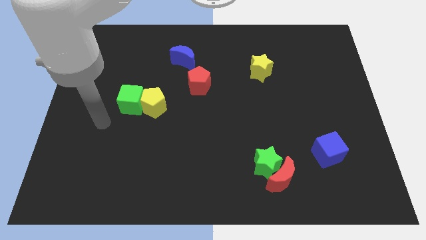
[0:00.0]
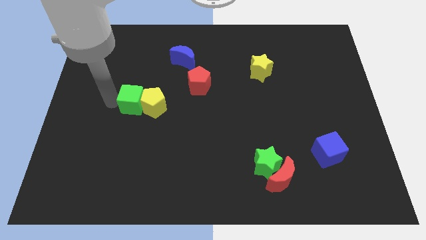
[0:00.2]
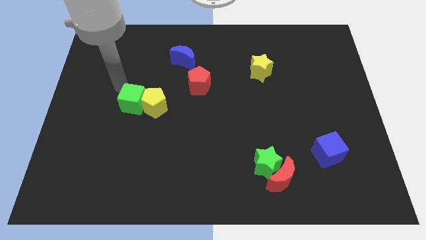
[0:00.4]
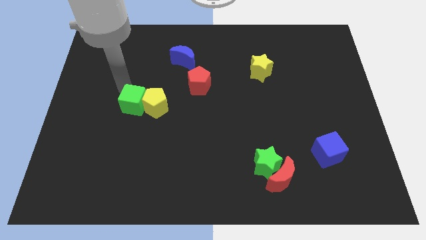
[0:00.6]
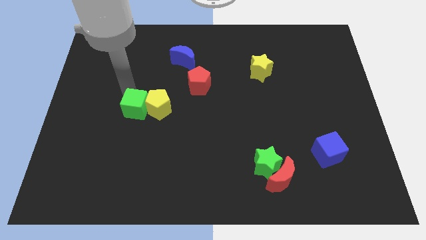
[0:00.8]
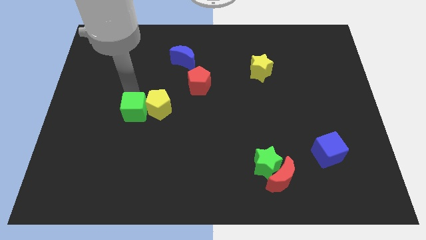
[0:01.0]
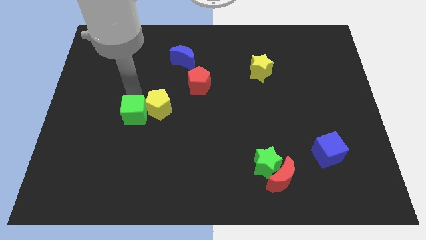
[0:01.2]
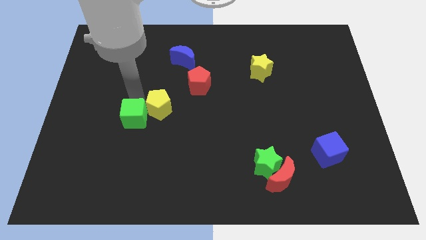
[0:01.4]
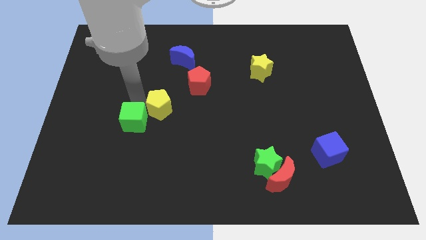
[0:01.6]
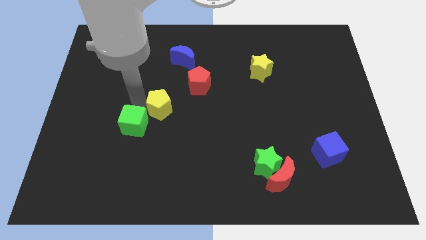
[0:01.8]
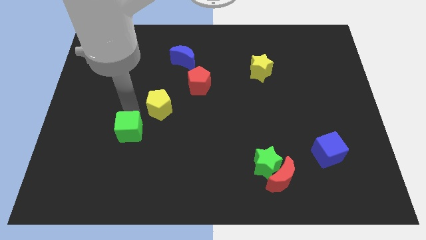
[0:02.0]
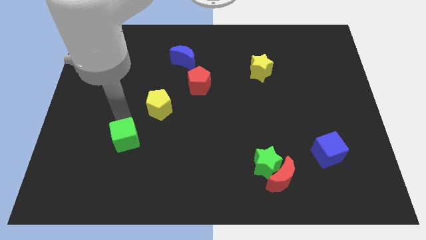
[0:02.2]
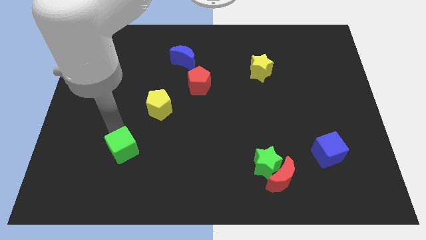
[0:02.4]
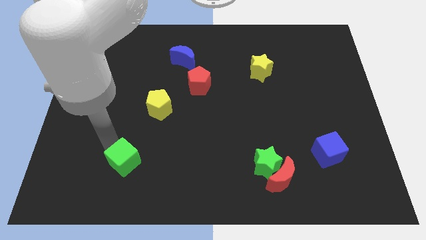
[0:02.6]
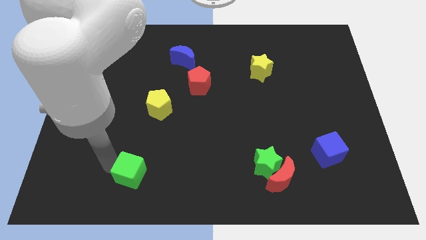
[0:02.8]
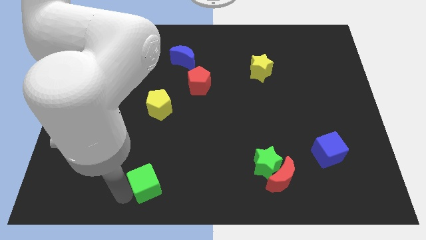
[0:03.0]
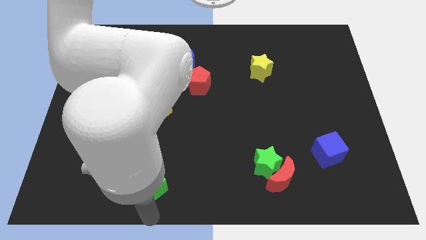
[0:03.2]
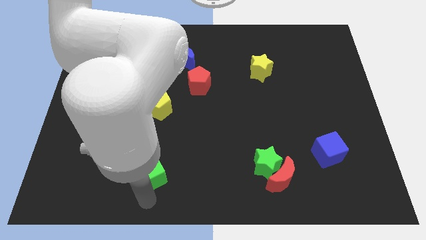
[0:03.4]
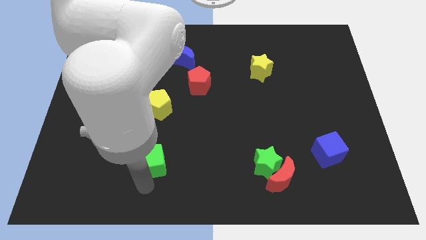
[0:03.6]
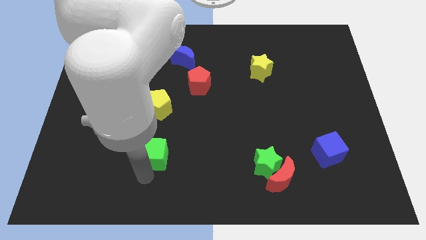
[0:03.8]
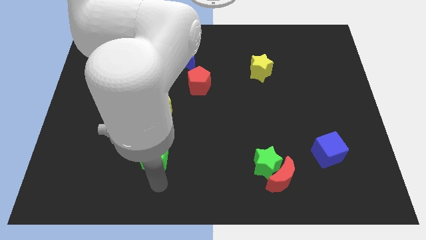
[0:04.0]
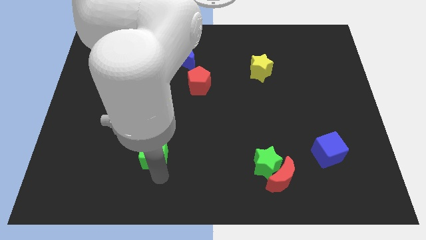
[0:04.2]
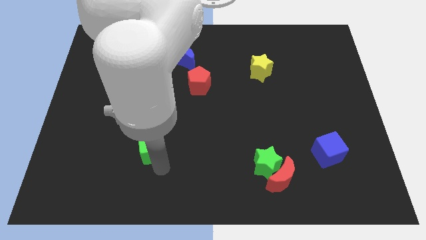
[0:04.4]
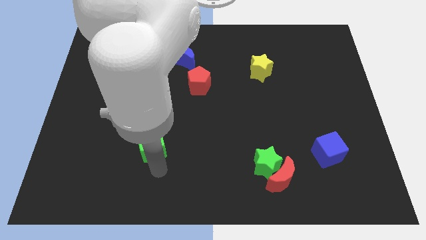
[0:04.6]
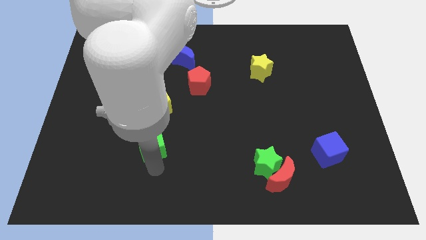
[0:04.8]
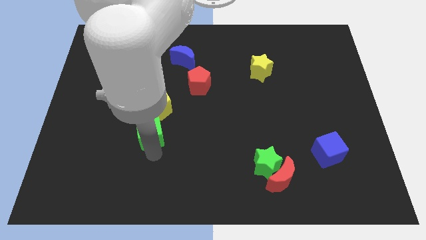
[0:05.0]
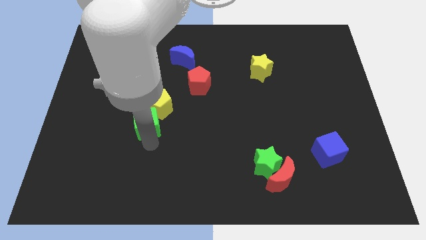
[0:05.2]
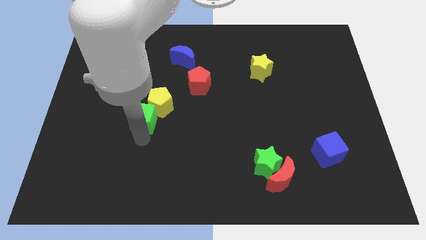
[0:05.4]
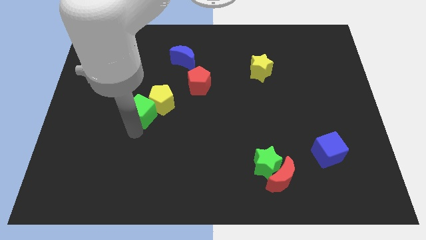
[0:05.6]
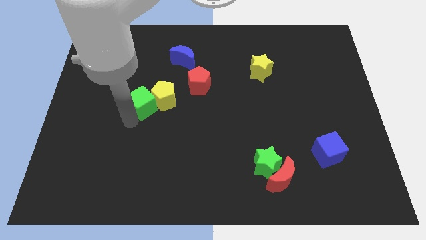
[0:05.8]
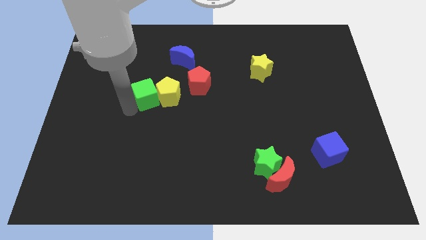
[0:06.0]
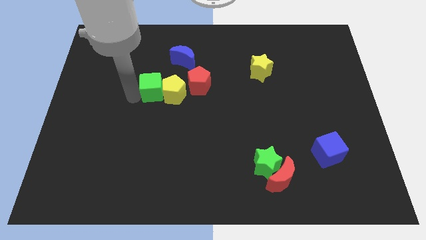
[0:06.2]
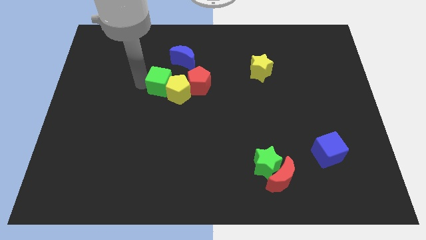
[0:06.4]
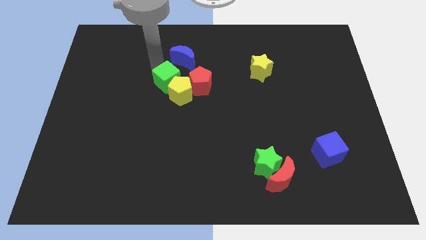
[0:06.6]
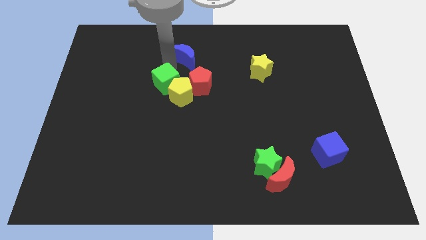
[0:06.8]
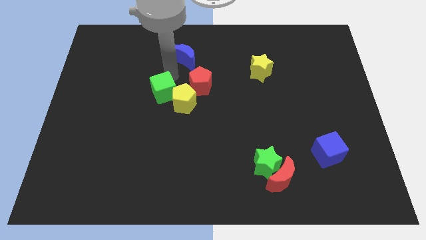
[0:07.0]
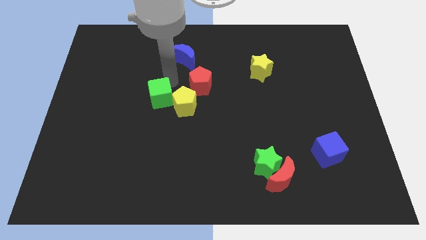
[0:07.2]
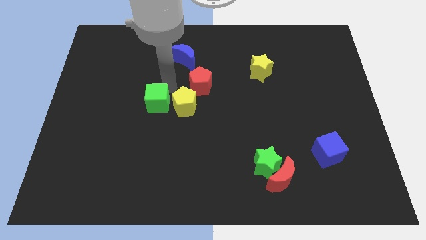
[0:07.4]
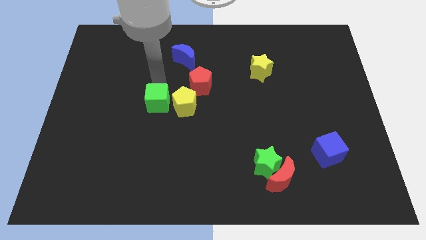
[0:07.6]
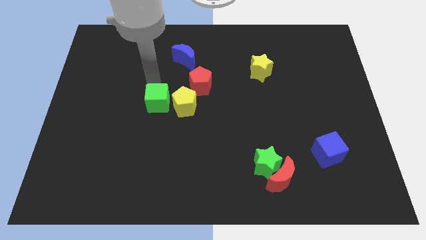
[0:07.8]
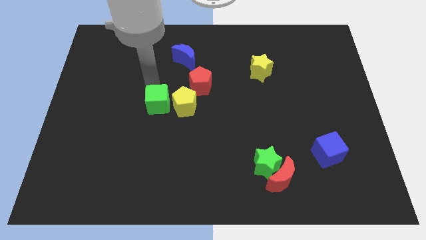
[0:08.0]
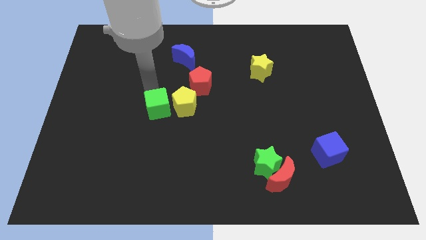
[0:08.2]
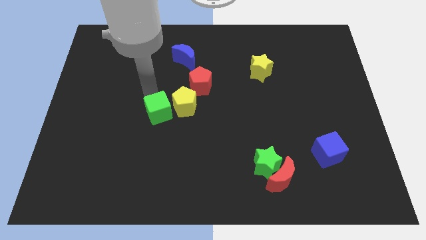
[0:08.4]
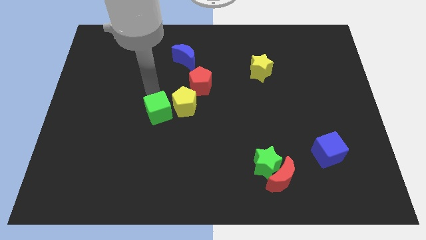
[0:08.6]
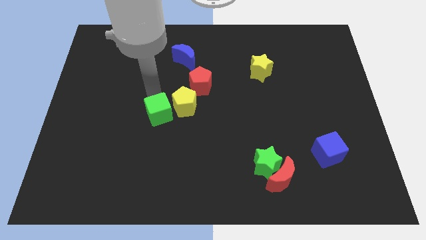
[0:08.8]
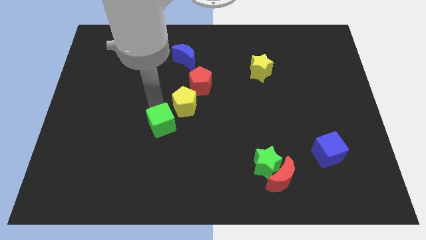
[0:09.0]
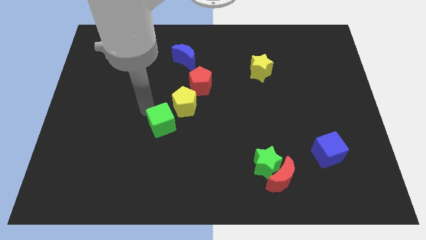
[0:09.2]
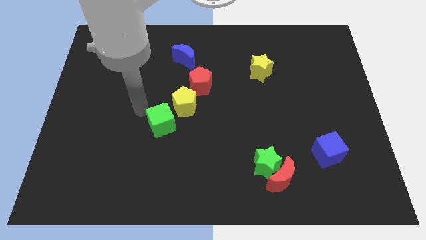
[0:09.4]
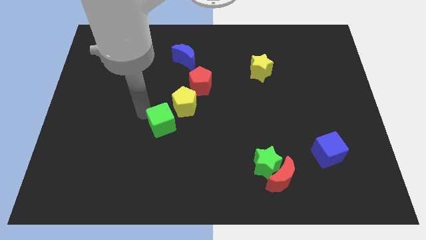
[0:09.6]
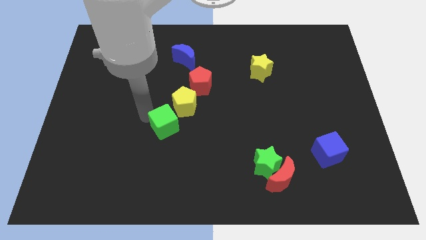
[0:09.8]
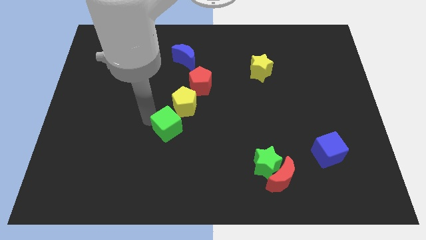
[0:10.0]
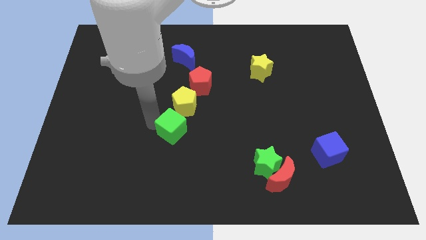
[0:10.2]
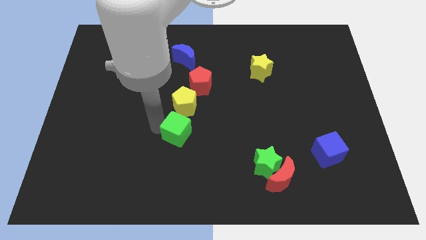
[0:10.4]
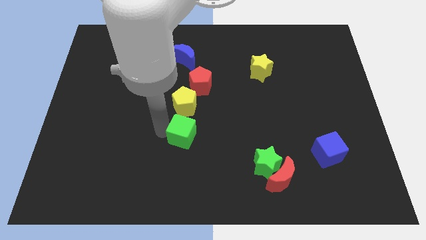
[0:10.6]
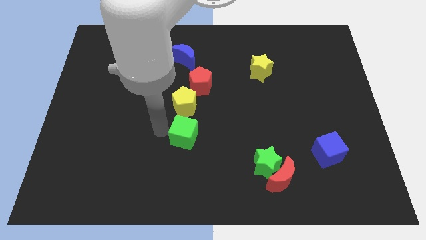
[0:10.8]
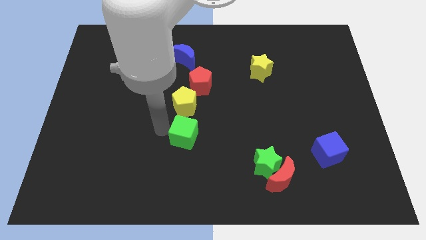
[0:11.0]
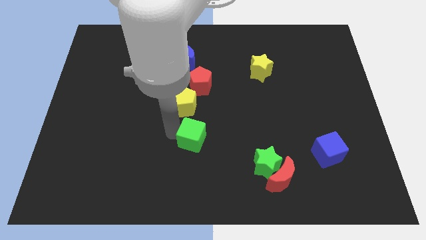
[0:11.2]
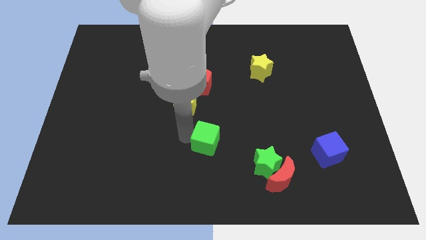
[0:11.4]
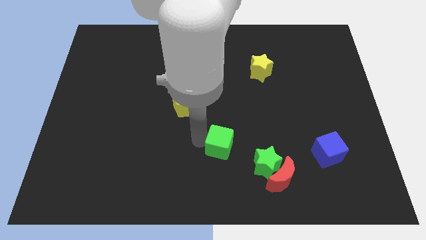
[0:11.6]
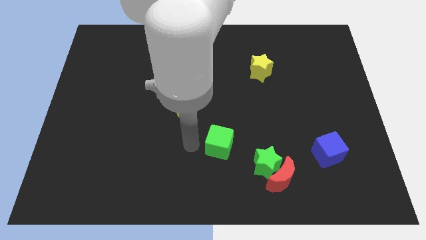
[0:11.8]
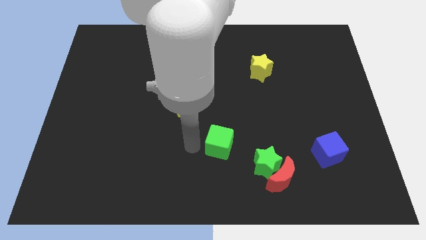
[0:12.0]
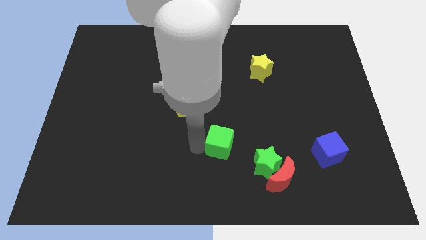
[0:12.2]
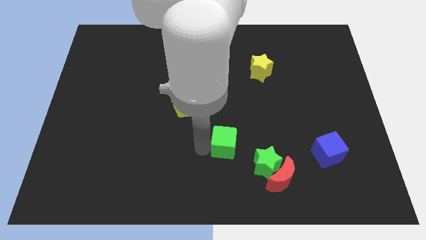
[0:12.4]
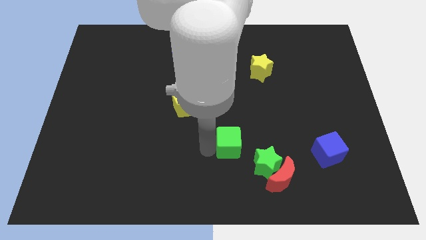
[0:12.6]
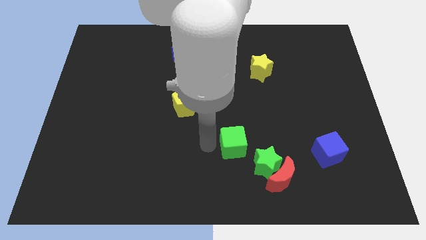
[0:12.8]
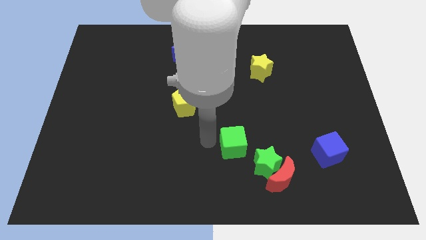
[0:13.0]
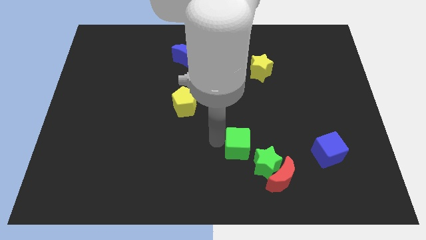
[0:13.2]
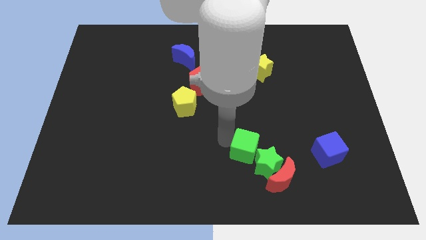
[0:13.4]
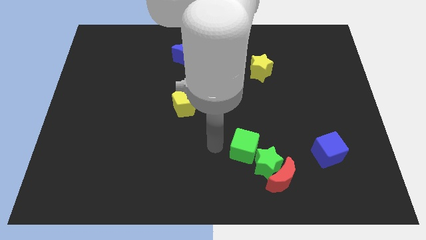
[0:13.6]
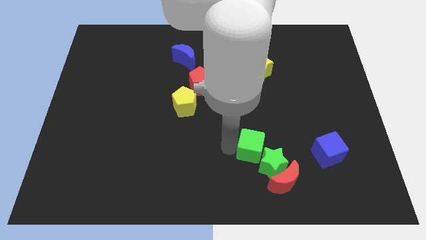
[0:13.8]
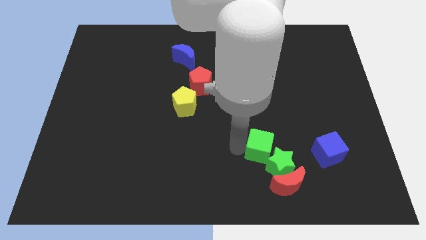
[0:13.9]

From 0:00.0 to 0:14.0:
slide the green cube to the left of the blue cube

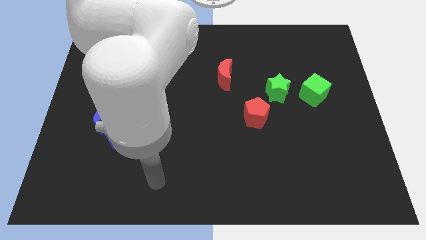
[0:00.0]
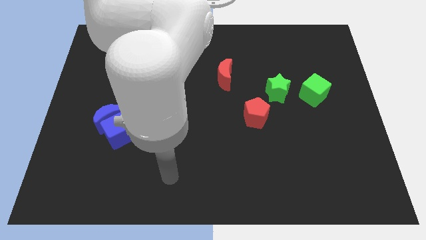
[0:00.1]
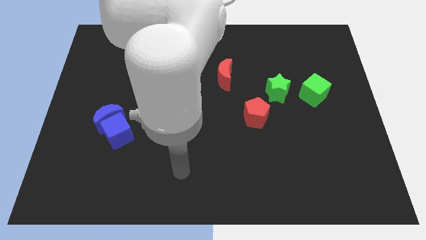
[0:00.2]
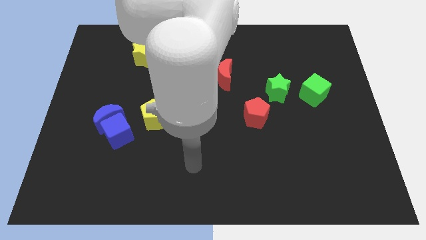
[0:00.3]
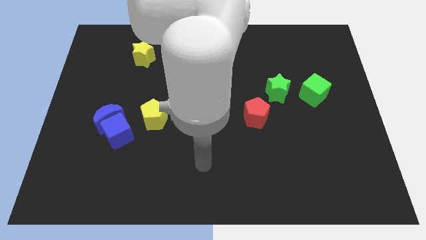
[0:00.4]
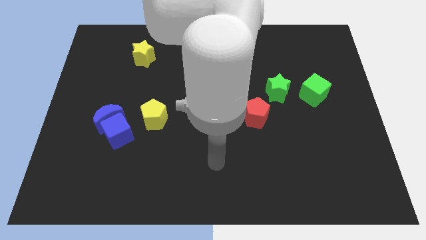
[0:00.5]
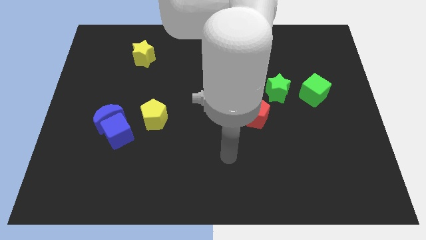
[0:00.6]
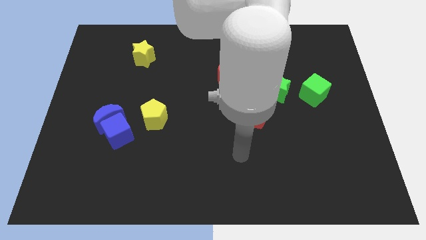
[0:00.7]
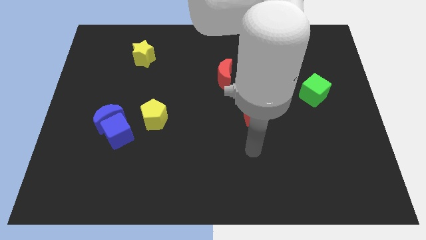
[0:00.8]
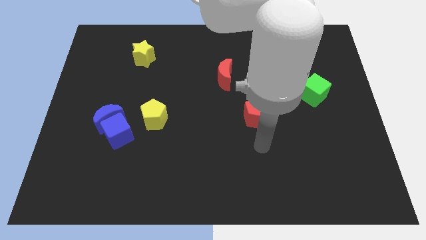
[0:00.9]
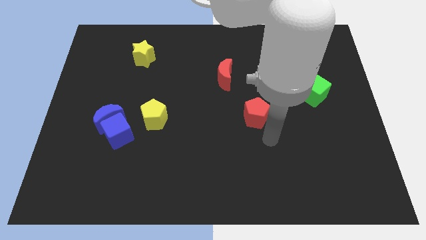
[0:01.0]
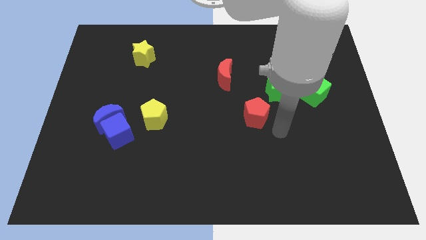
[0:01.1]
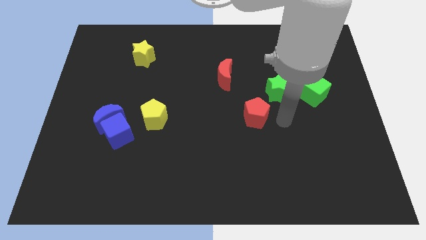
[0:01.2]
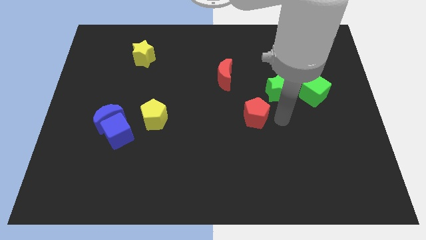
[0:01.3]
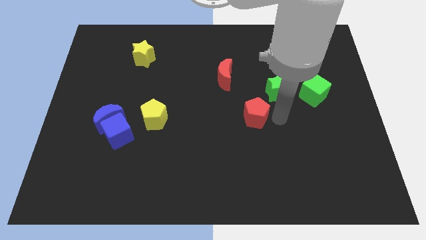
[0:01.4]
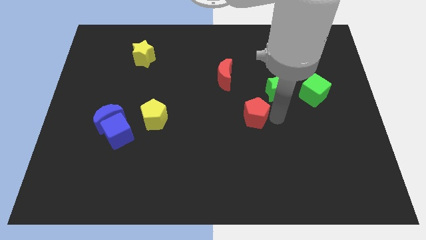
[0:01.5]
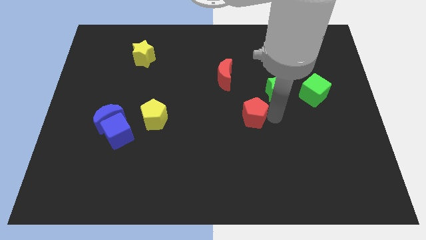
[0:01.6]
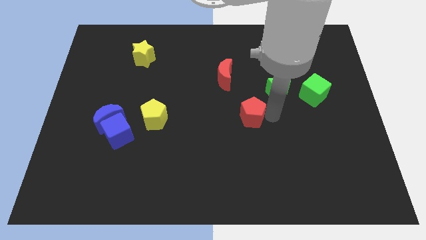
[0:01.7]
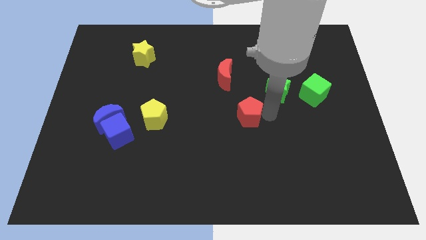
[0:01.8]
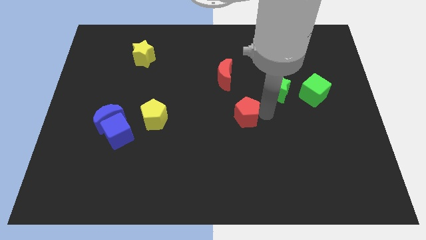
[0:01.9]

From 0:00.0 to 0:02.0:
push the red pentagon to the bottom side of the red moon
